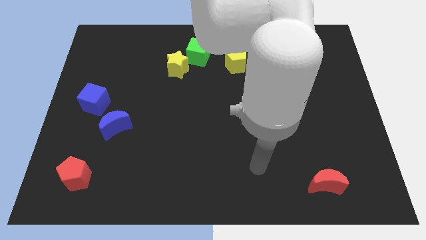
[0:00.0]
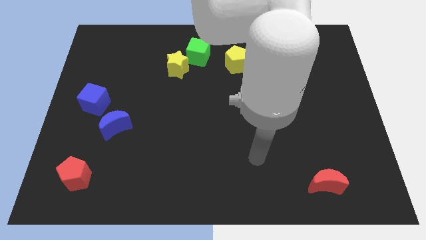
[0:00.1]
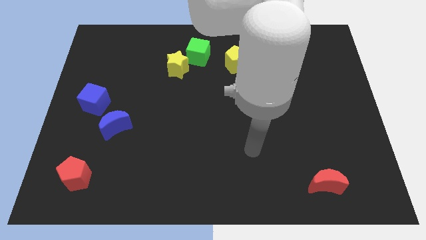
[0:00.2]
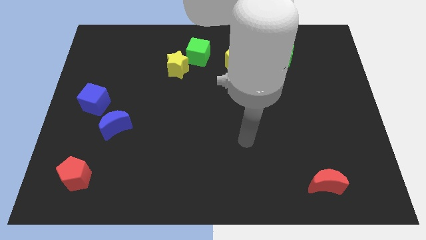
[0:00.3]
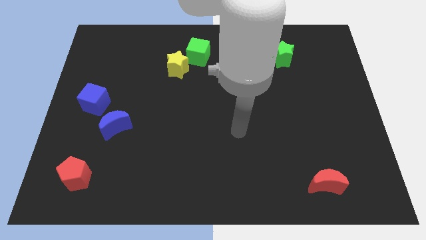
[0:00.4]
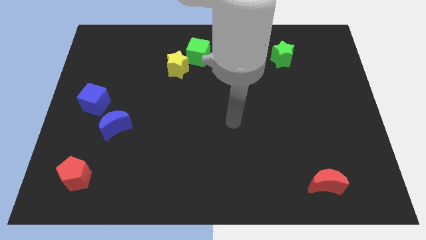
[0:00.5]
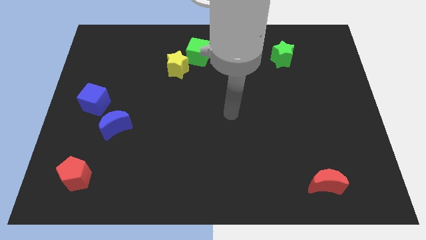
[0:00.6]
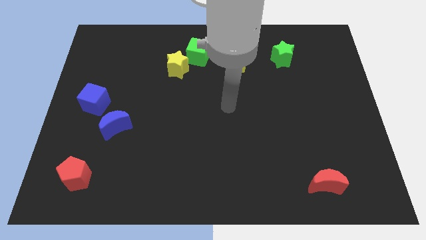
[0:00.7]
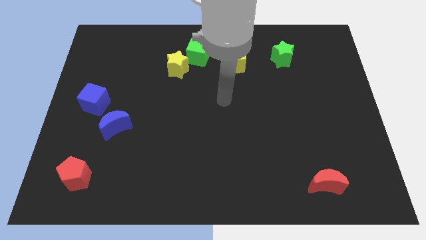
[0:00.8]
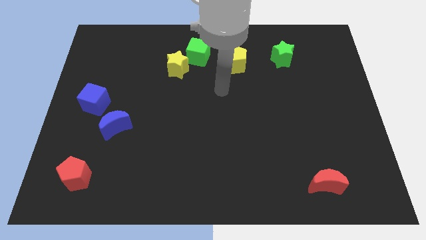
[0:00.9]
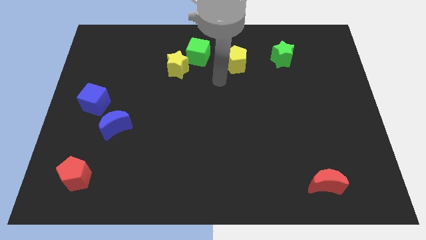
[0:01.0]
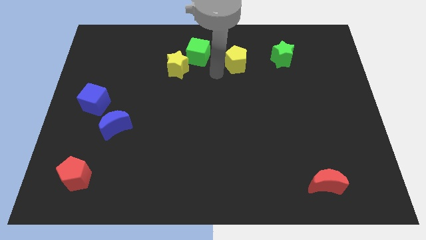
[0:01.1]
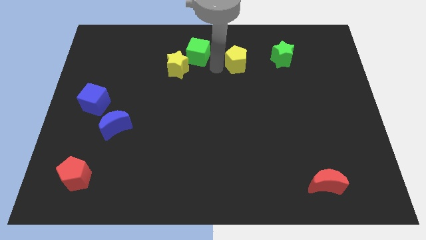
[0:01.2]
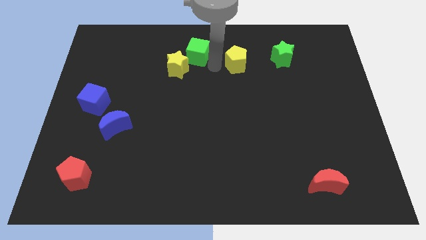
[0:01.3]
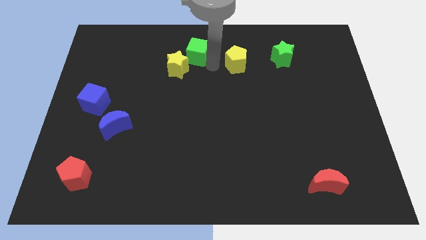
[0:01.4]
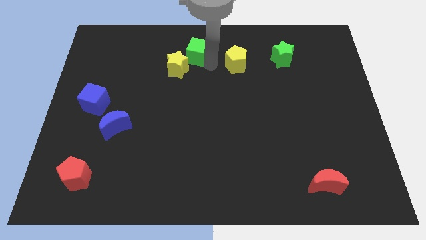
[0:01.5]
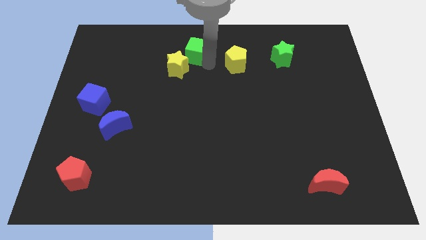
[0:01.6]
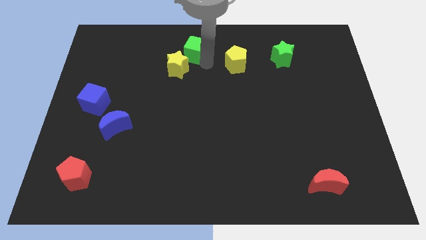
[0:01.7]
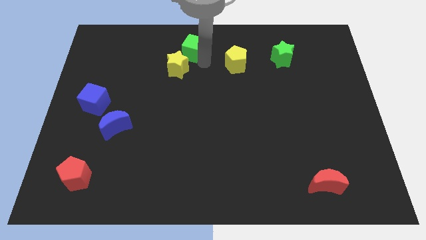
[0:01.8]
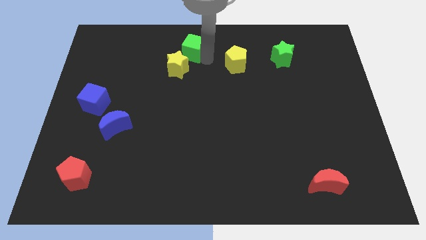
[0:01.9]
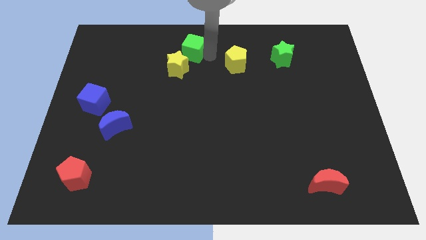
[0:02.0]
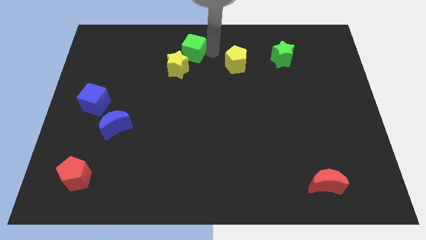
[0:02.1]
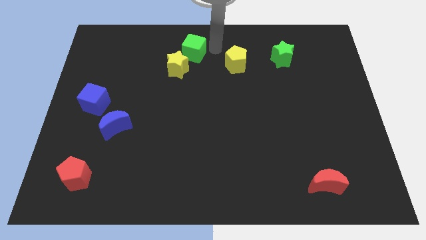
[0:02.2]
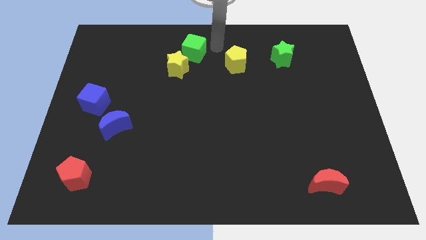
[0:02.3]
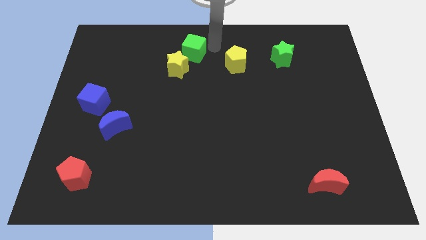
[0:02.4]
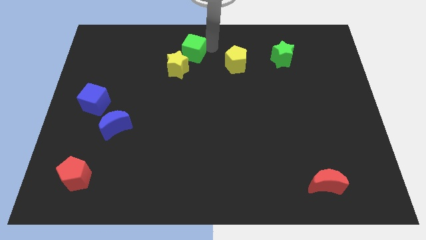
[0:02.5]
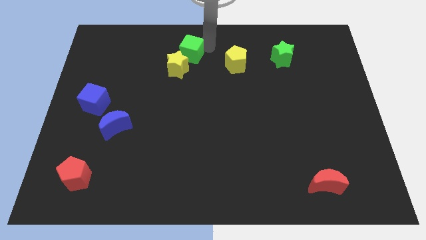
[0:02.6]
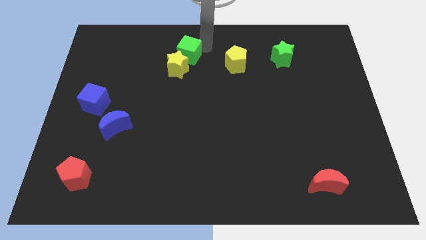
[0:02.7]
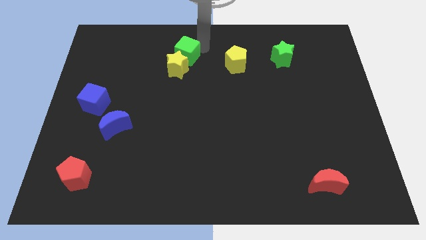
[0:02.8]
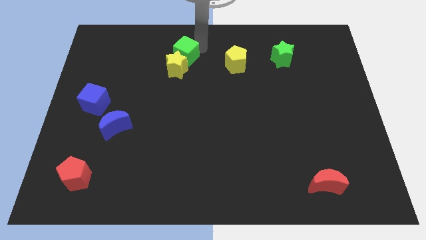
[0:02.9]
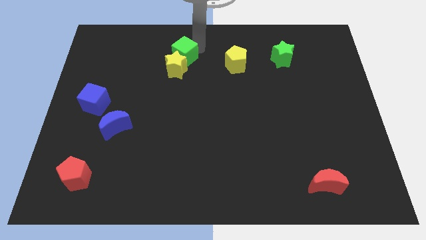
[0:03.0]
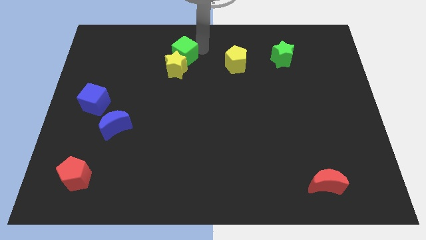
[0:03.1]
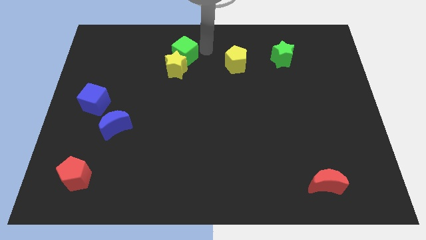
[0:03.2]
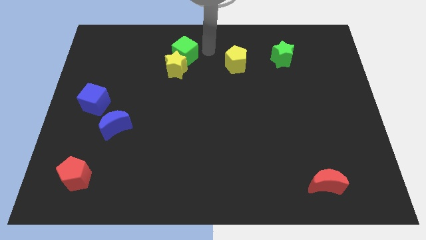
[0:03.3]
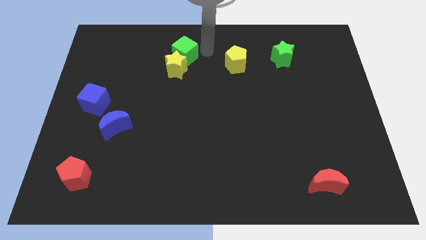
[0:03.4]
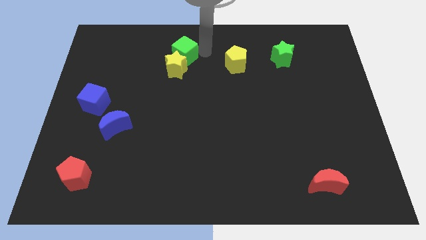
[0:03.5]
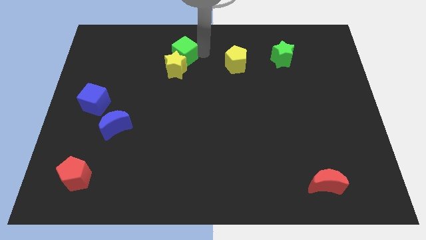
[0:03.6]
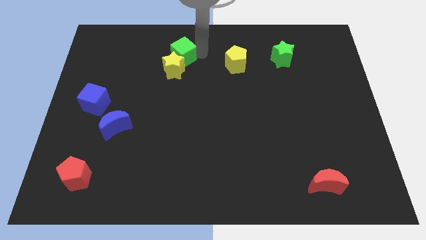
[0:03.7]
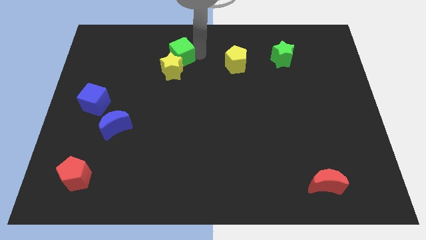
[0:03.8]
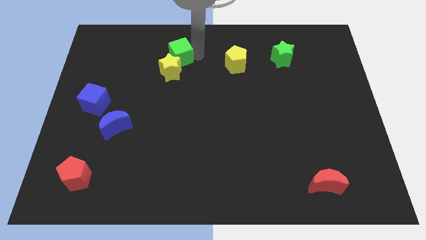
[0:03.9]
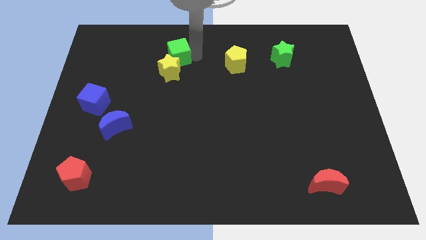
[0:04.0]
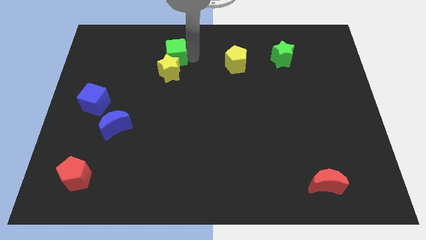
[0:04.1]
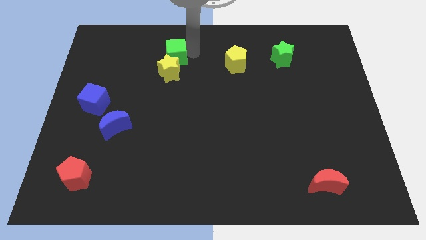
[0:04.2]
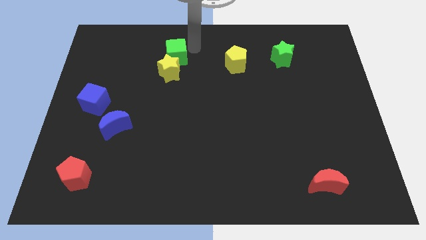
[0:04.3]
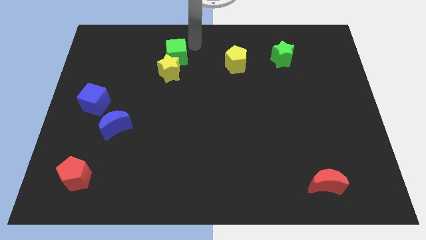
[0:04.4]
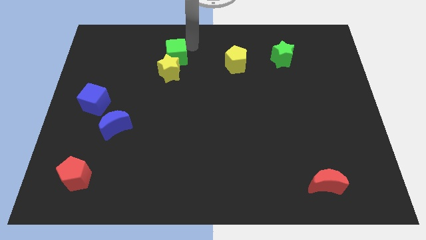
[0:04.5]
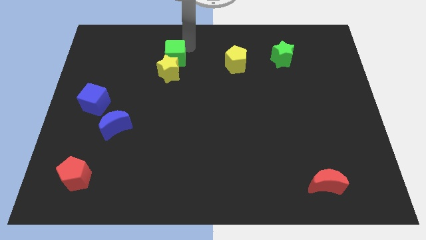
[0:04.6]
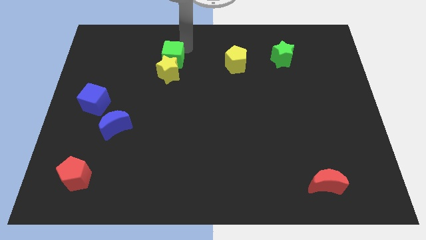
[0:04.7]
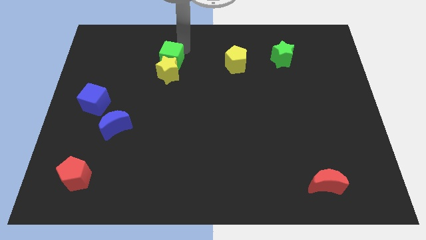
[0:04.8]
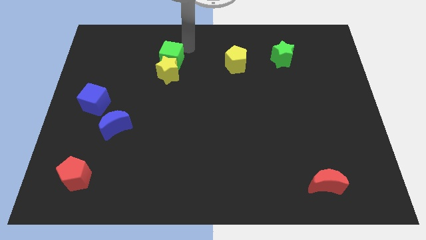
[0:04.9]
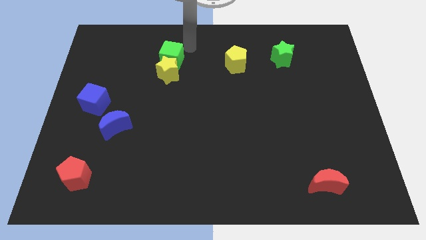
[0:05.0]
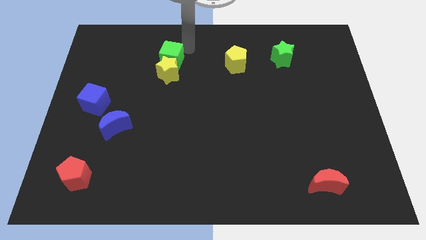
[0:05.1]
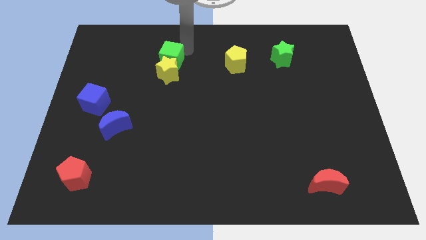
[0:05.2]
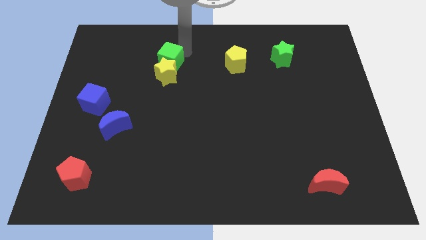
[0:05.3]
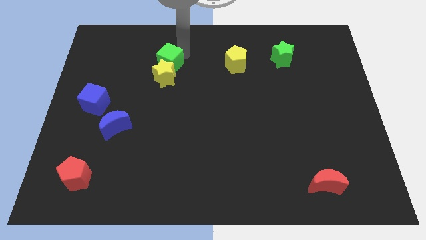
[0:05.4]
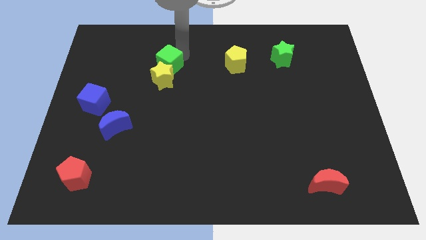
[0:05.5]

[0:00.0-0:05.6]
move the green cube down and left a little

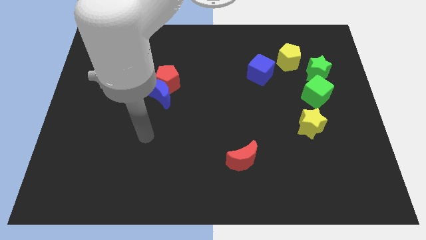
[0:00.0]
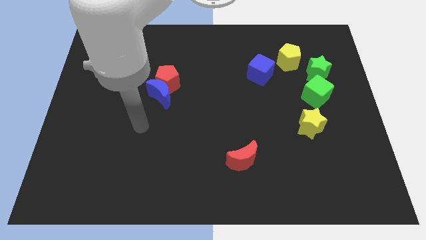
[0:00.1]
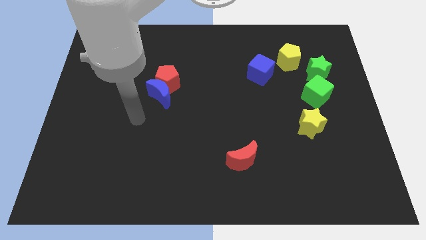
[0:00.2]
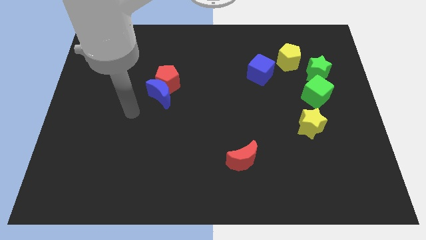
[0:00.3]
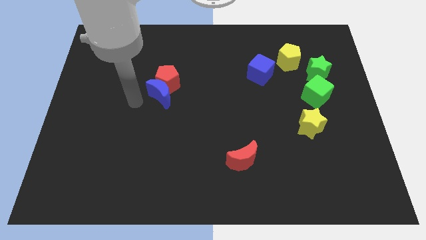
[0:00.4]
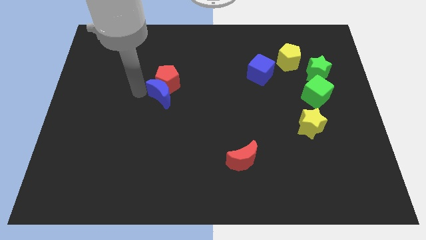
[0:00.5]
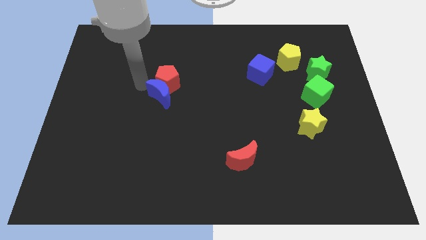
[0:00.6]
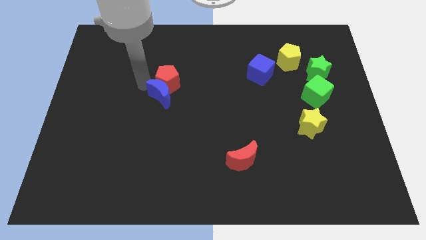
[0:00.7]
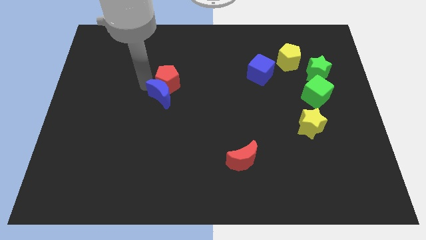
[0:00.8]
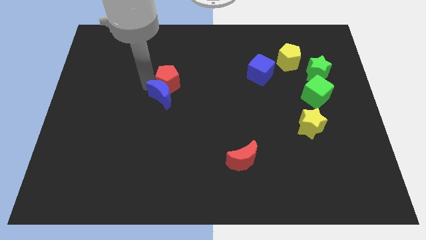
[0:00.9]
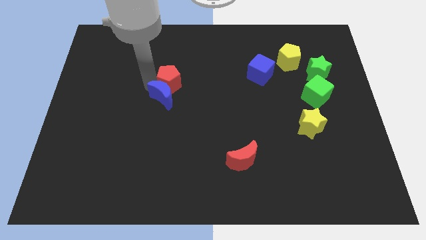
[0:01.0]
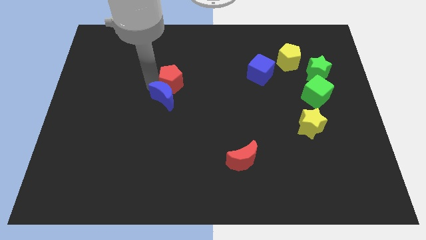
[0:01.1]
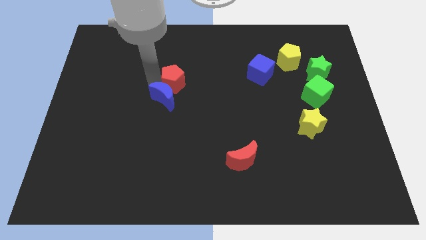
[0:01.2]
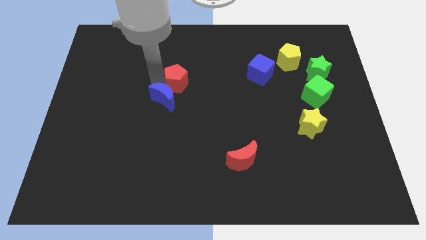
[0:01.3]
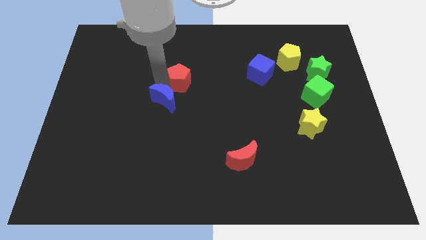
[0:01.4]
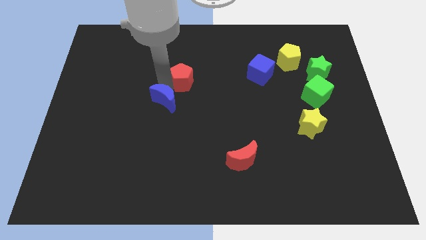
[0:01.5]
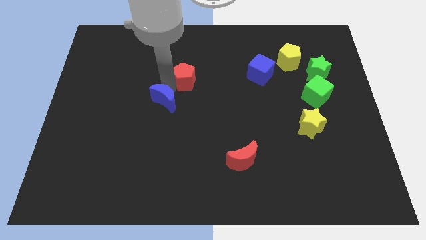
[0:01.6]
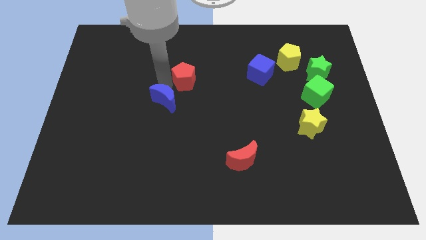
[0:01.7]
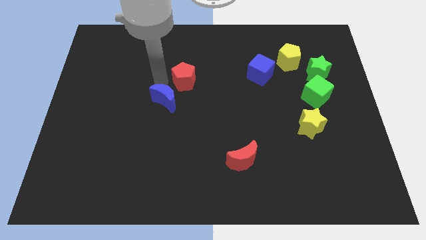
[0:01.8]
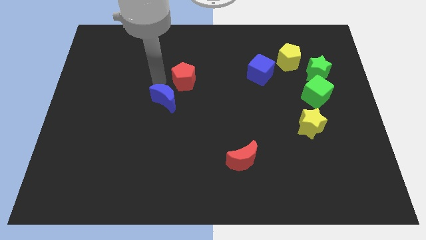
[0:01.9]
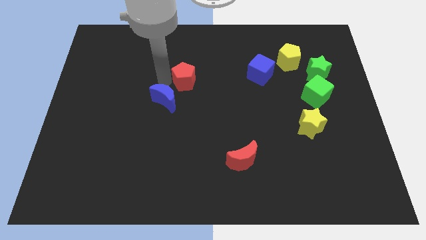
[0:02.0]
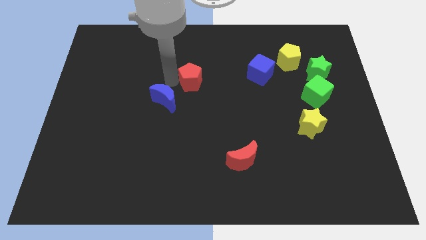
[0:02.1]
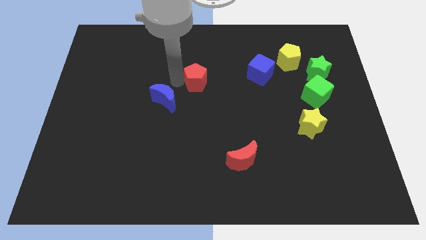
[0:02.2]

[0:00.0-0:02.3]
push the red pentagon somewhat right

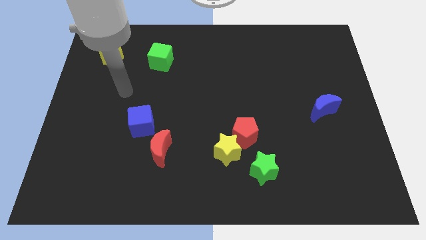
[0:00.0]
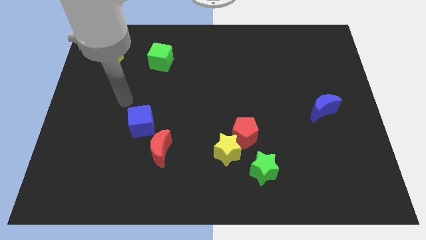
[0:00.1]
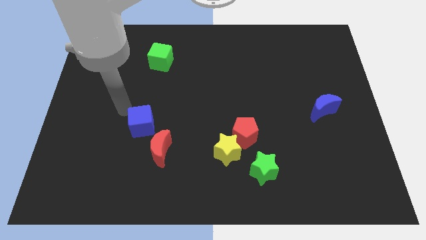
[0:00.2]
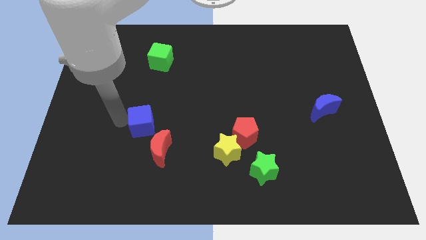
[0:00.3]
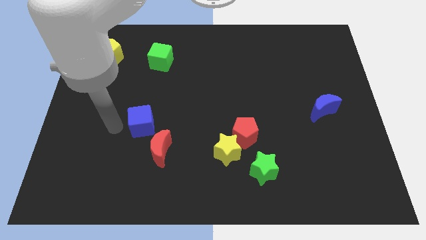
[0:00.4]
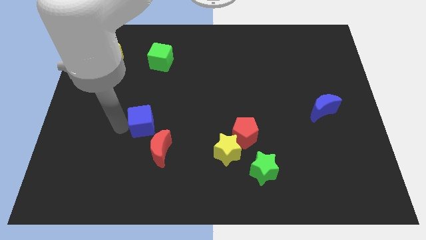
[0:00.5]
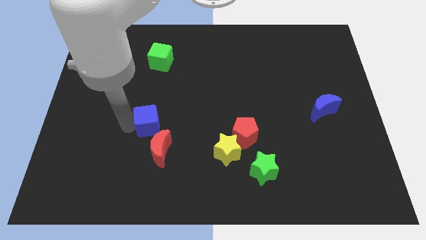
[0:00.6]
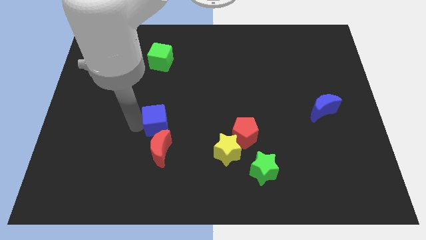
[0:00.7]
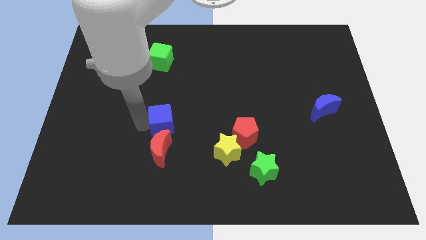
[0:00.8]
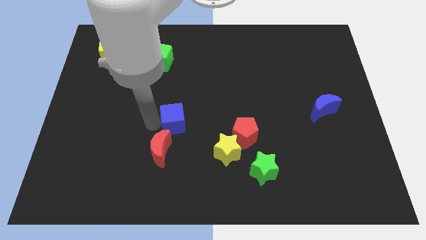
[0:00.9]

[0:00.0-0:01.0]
push the blue cube a bit to the right
